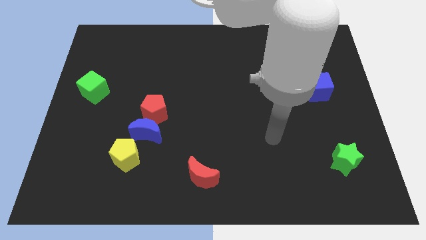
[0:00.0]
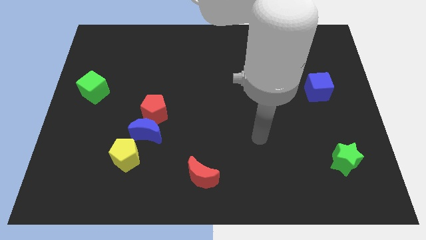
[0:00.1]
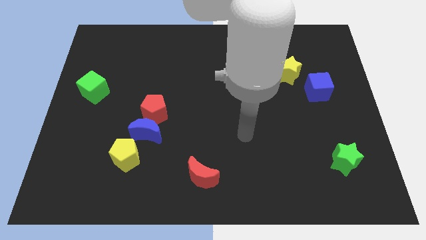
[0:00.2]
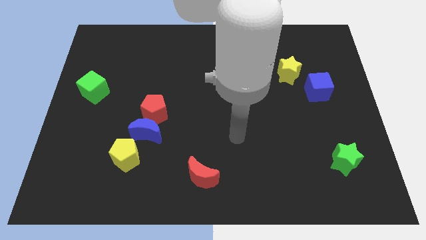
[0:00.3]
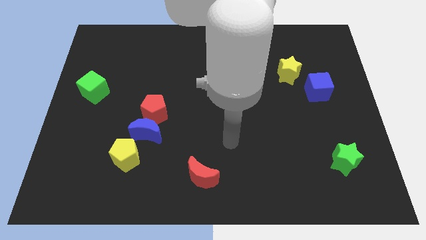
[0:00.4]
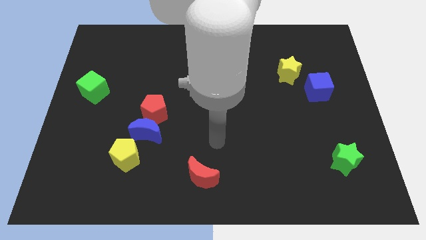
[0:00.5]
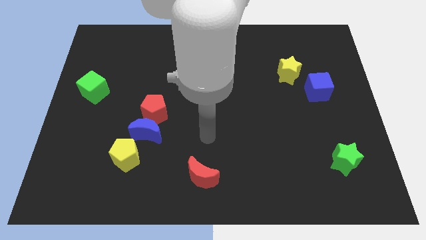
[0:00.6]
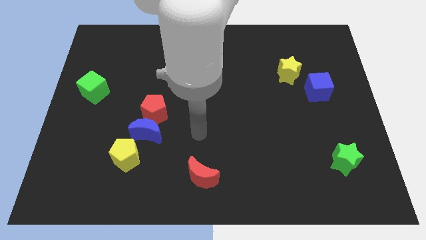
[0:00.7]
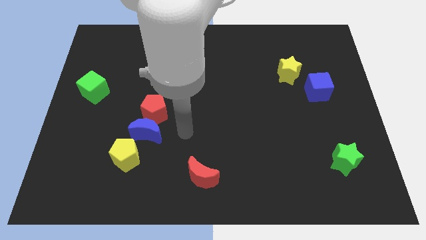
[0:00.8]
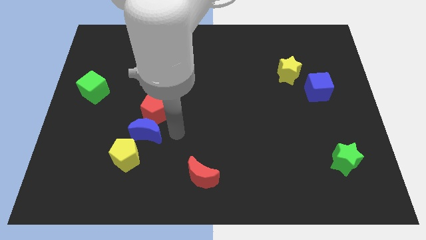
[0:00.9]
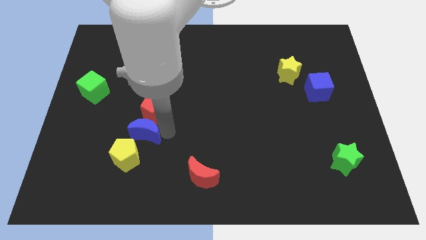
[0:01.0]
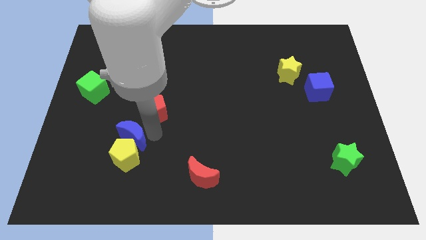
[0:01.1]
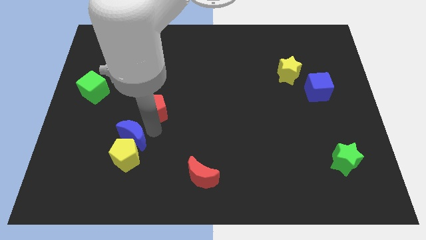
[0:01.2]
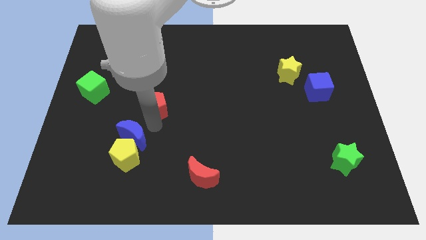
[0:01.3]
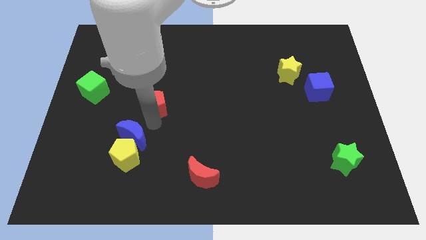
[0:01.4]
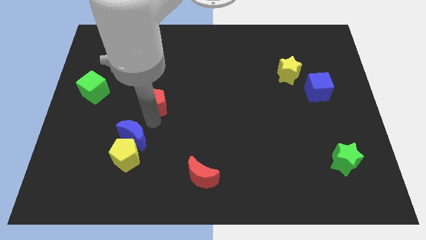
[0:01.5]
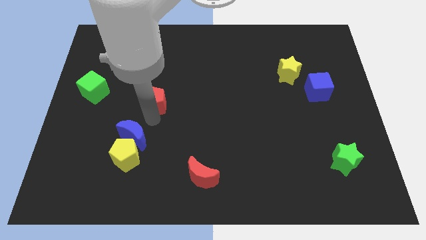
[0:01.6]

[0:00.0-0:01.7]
separate the red pentagon from the blue moon

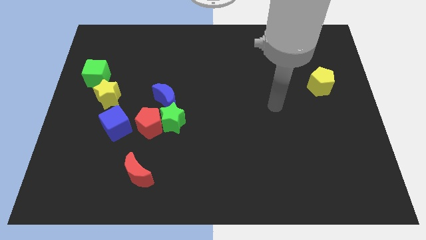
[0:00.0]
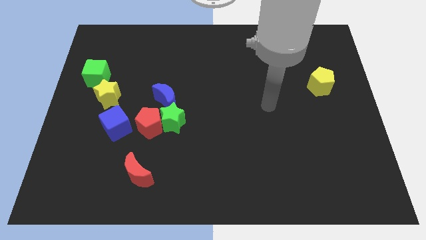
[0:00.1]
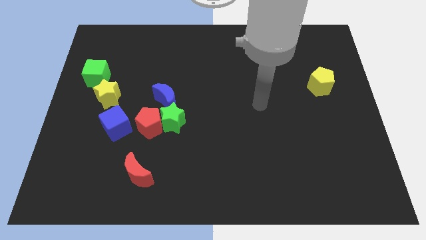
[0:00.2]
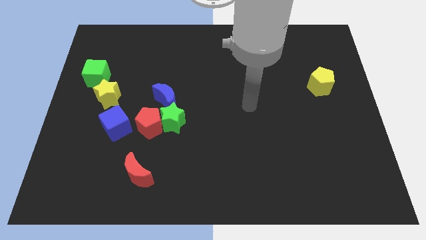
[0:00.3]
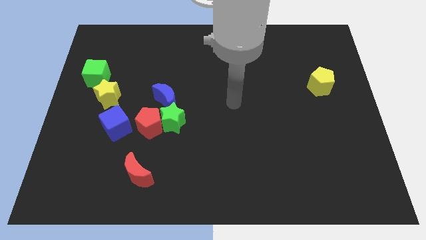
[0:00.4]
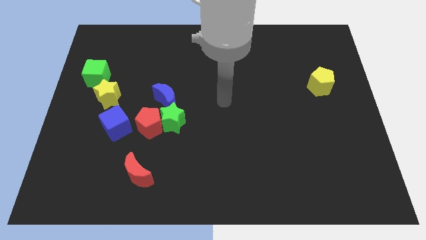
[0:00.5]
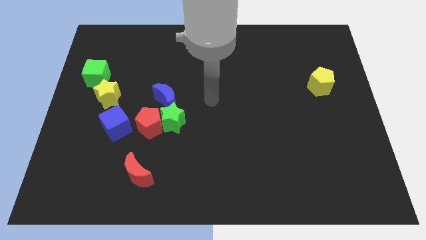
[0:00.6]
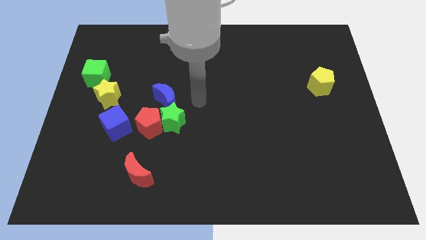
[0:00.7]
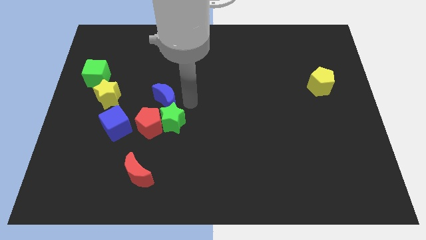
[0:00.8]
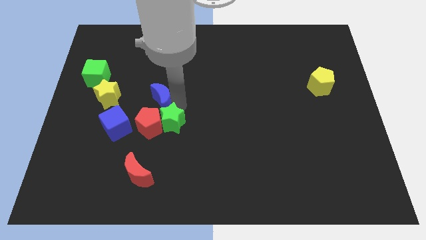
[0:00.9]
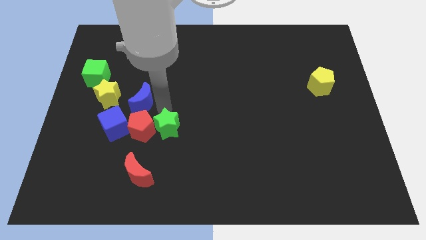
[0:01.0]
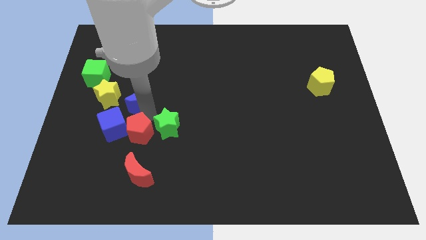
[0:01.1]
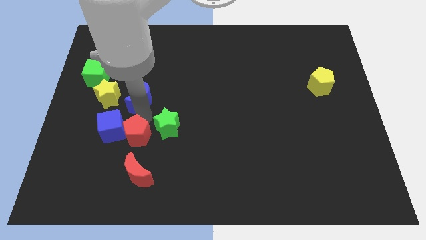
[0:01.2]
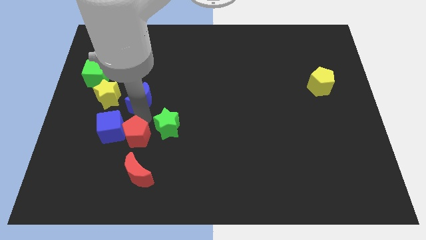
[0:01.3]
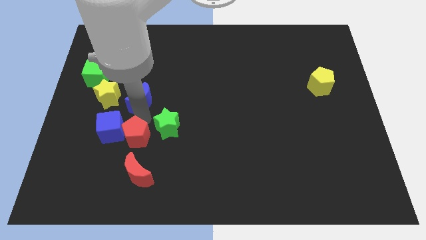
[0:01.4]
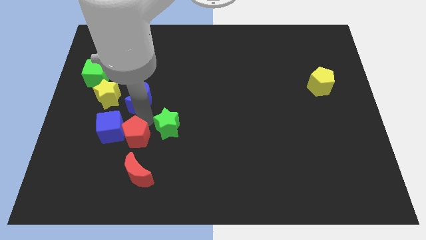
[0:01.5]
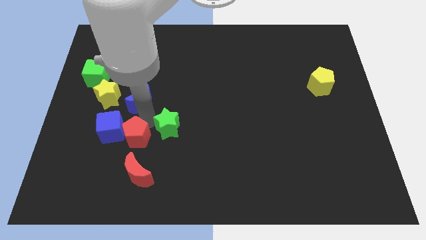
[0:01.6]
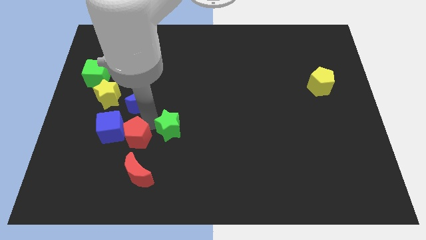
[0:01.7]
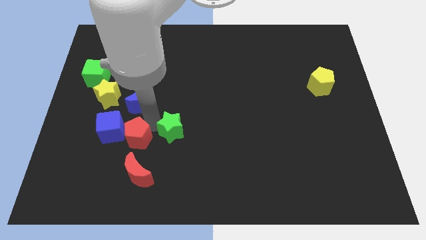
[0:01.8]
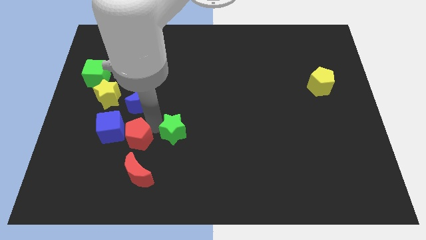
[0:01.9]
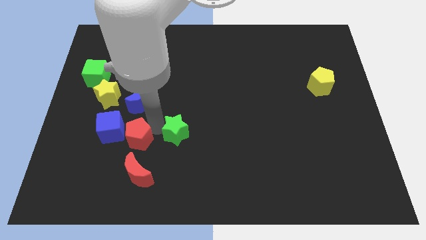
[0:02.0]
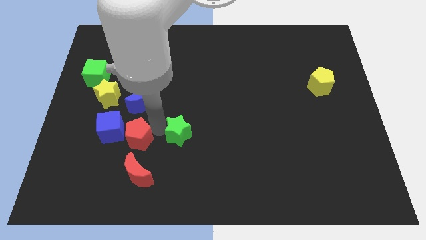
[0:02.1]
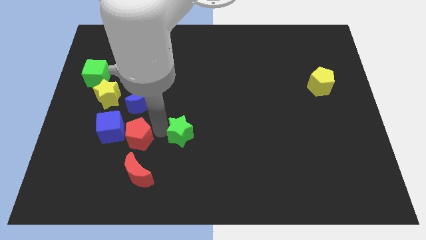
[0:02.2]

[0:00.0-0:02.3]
pull the green star apart from the red pentagon and blue moon

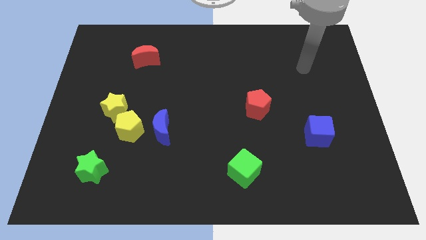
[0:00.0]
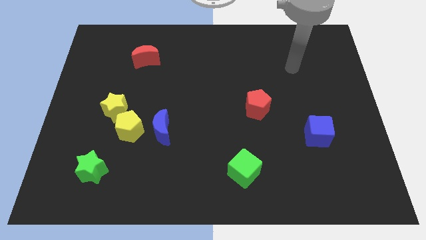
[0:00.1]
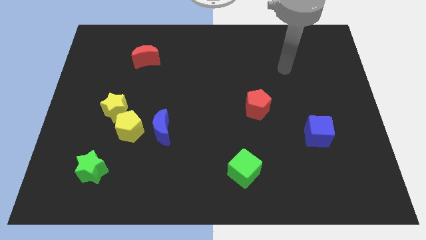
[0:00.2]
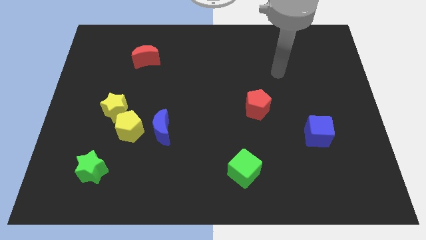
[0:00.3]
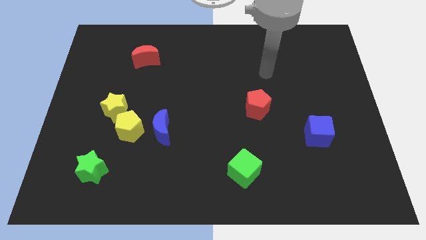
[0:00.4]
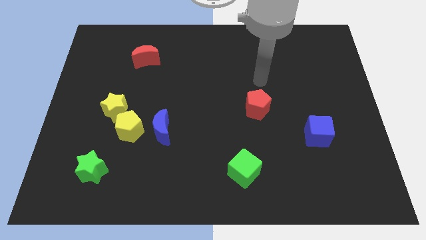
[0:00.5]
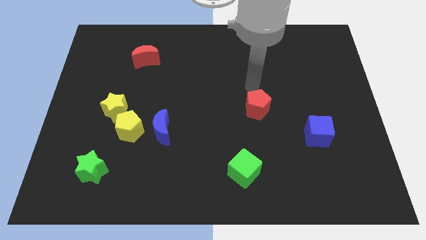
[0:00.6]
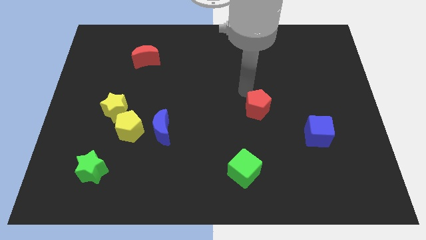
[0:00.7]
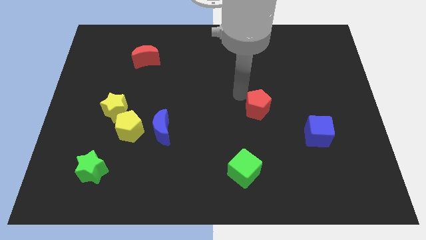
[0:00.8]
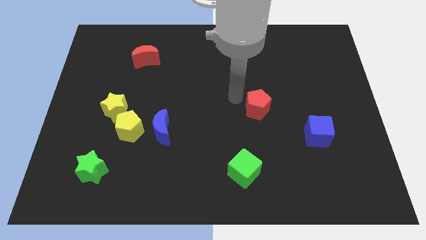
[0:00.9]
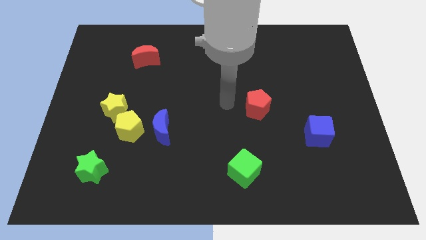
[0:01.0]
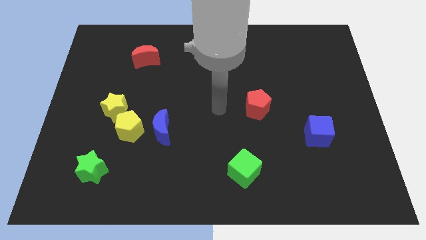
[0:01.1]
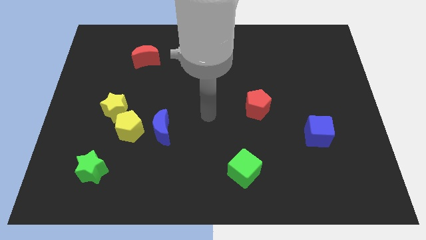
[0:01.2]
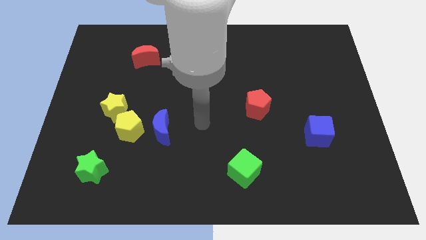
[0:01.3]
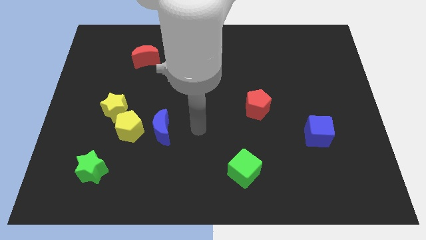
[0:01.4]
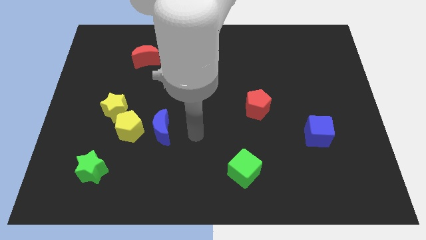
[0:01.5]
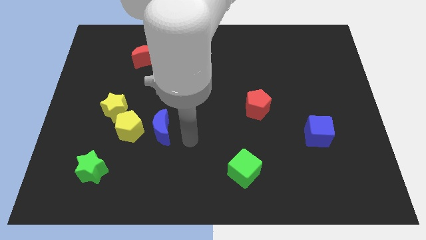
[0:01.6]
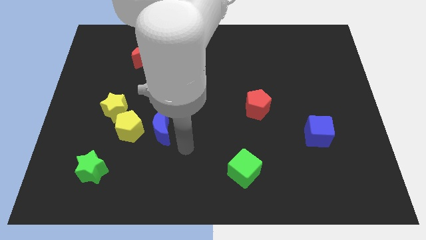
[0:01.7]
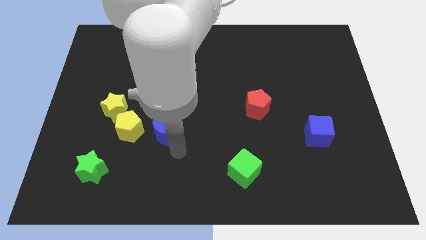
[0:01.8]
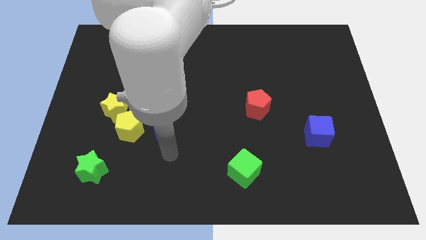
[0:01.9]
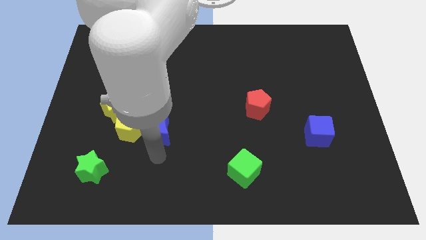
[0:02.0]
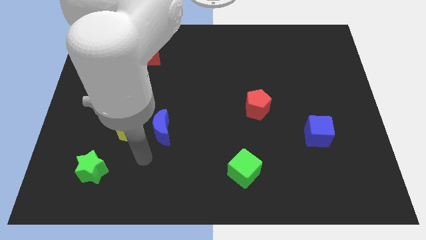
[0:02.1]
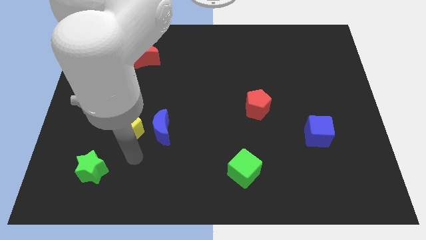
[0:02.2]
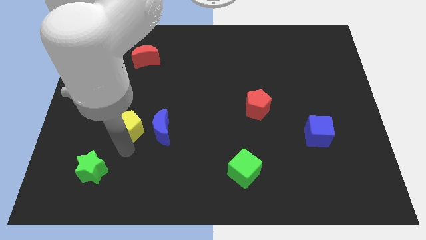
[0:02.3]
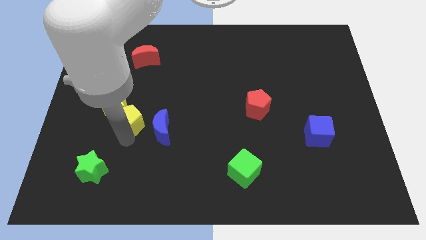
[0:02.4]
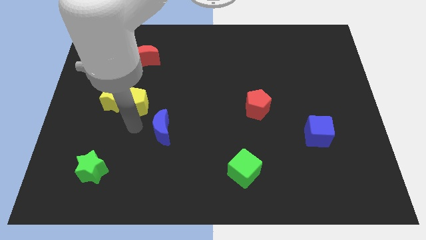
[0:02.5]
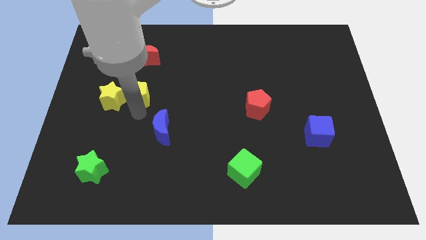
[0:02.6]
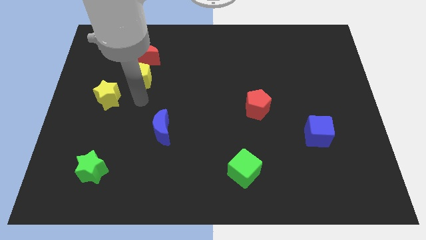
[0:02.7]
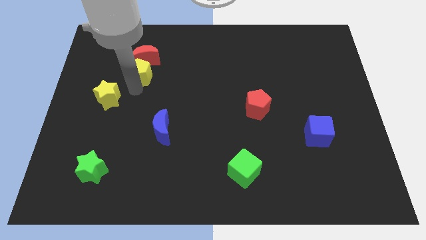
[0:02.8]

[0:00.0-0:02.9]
separate the yellow star from the yellow pentagon

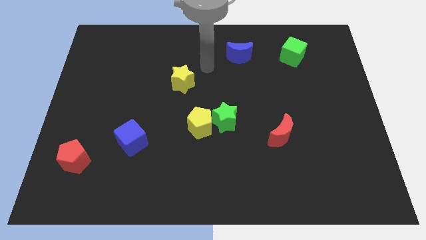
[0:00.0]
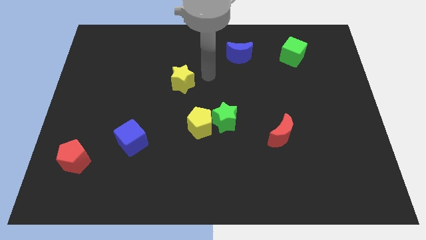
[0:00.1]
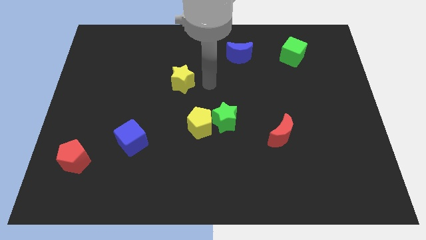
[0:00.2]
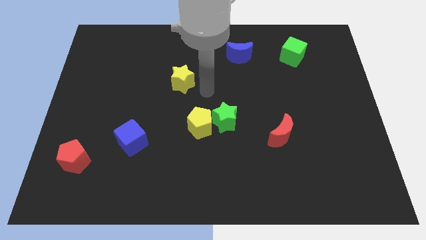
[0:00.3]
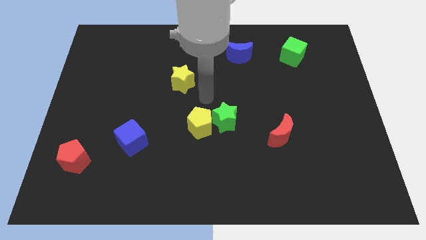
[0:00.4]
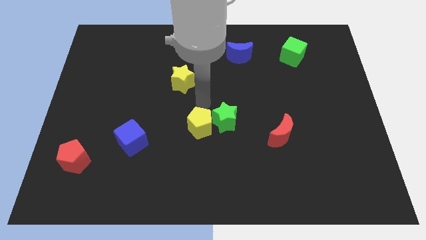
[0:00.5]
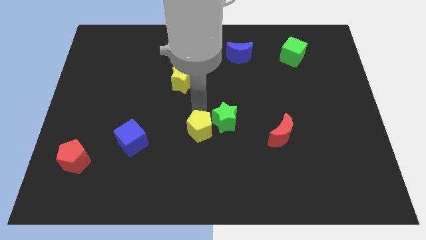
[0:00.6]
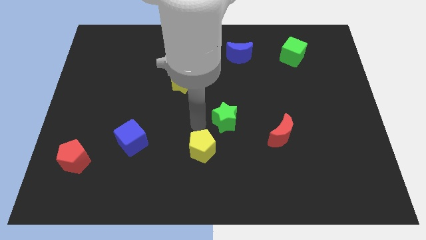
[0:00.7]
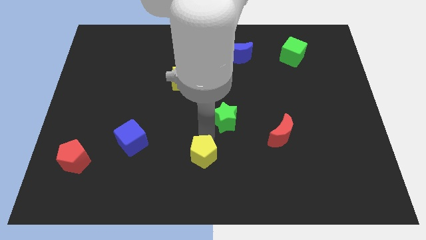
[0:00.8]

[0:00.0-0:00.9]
separate the green star from the yellow pentagon

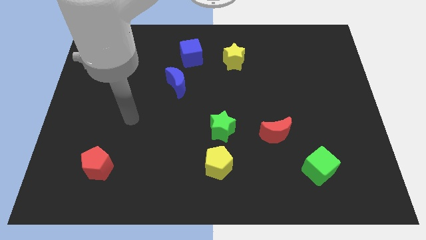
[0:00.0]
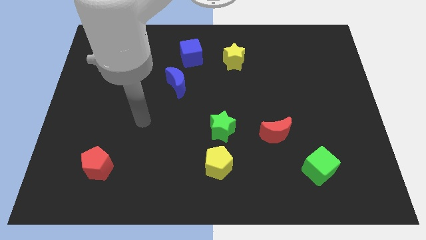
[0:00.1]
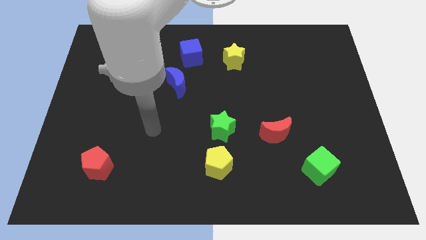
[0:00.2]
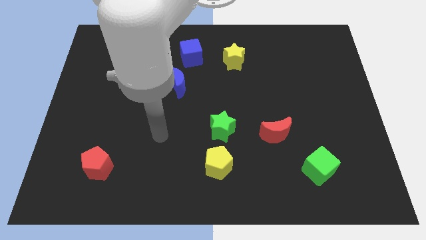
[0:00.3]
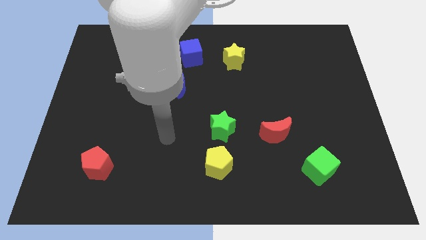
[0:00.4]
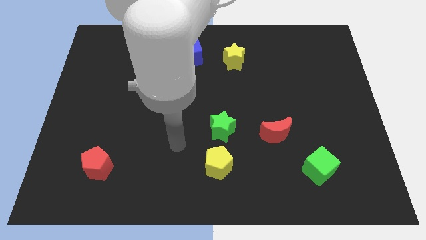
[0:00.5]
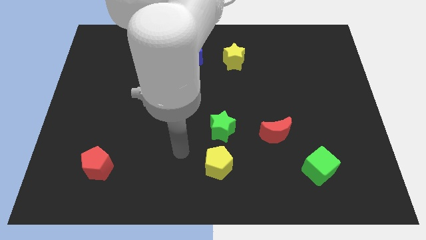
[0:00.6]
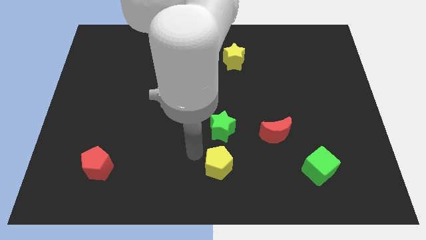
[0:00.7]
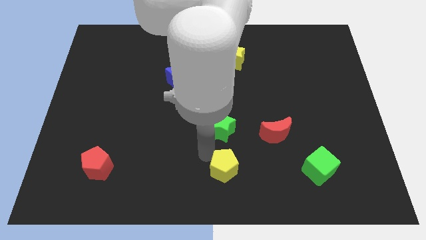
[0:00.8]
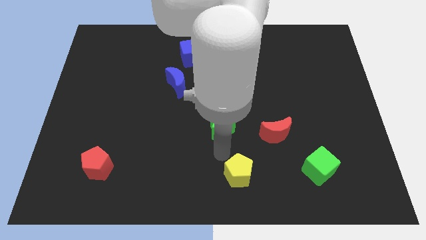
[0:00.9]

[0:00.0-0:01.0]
move the green star away from the yellow pentagon

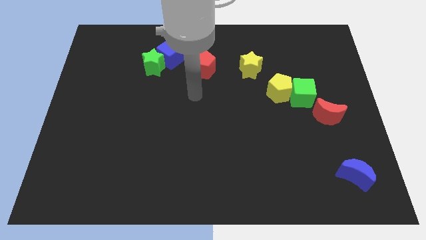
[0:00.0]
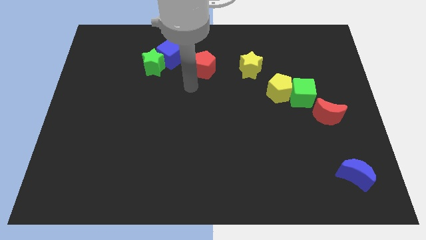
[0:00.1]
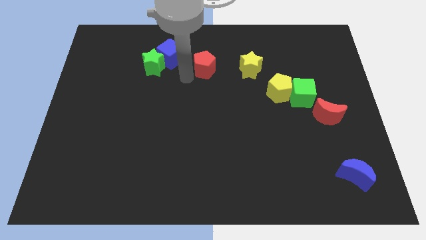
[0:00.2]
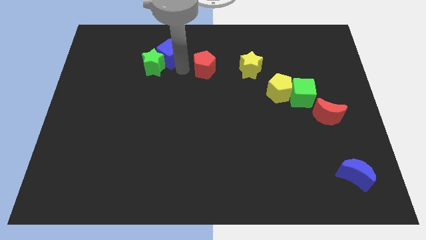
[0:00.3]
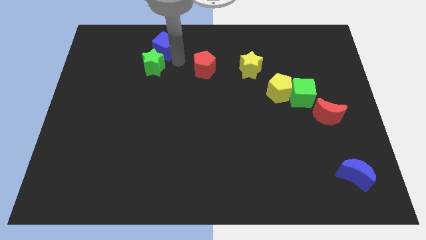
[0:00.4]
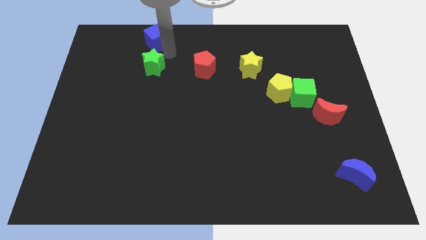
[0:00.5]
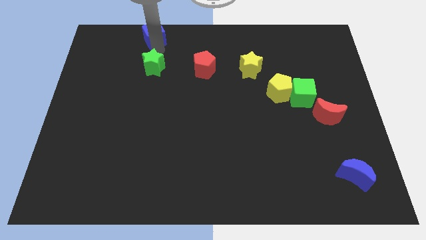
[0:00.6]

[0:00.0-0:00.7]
move the green star away from the blue cube
